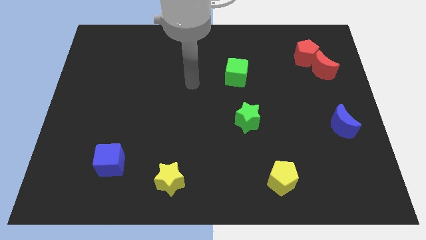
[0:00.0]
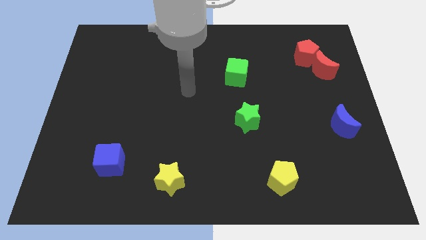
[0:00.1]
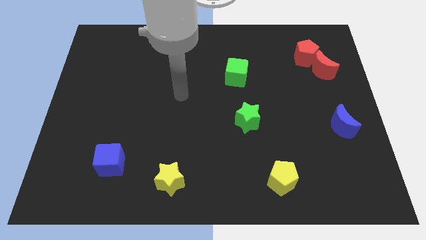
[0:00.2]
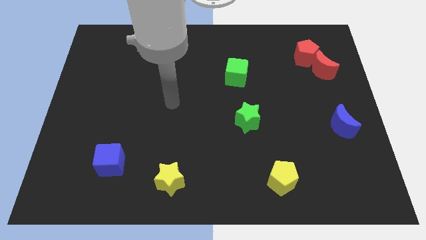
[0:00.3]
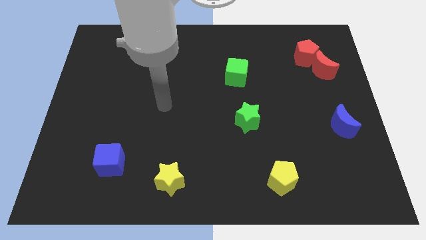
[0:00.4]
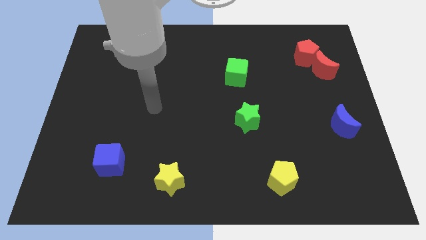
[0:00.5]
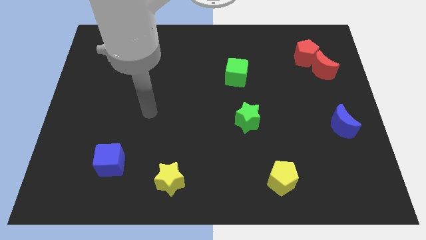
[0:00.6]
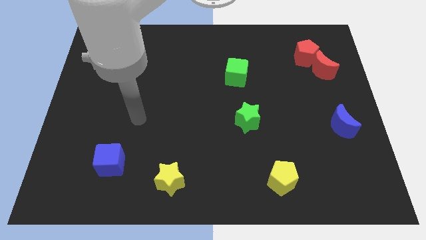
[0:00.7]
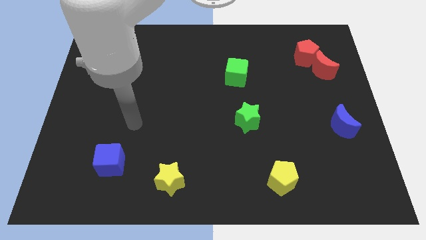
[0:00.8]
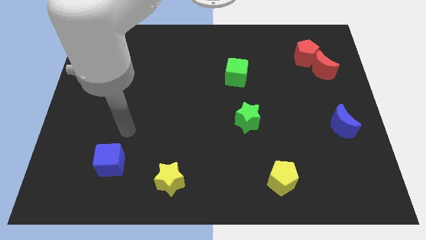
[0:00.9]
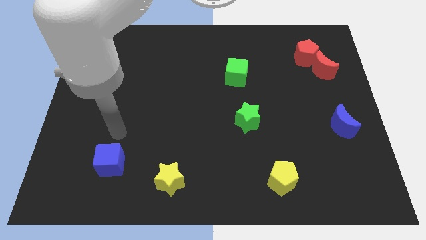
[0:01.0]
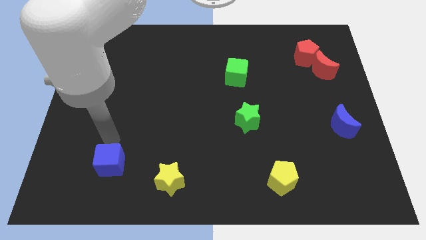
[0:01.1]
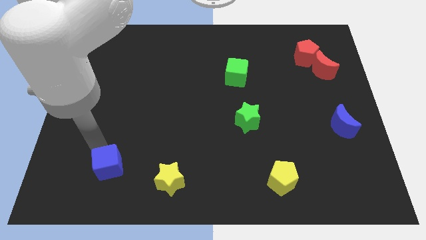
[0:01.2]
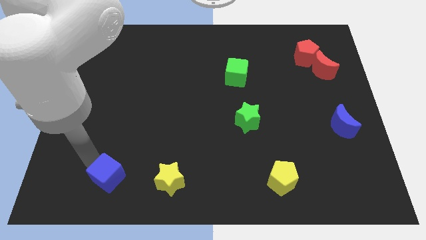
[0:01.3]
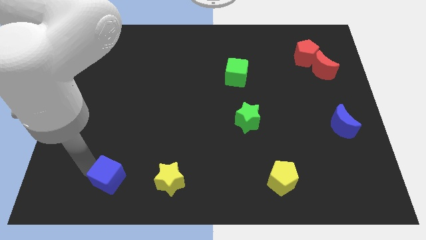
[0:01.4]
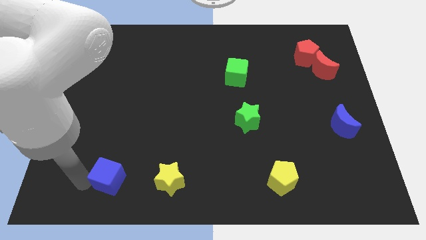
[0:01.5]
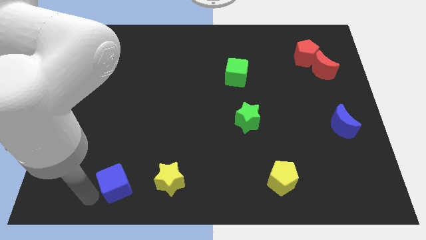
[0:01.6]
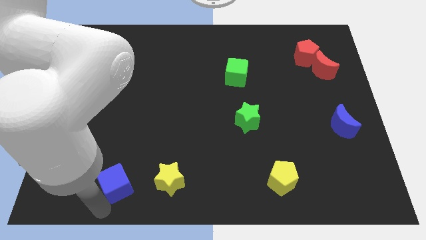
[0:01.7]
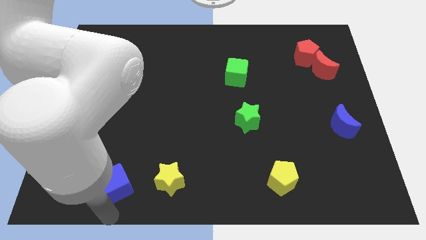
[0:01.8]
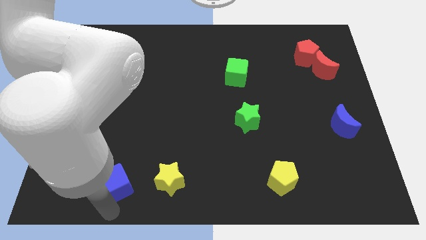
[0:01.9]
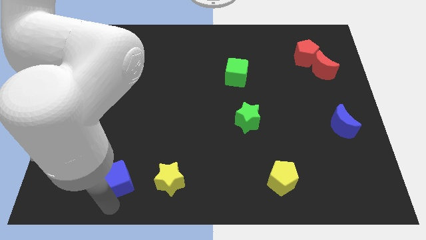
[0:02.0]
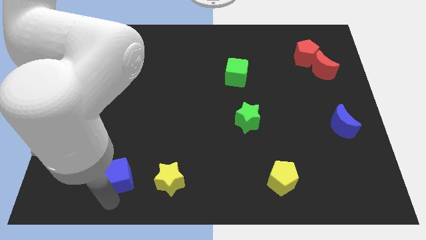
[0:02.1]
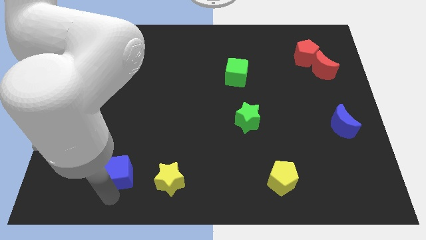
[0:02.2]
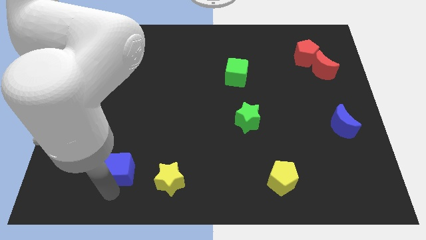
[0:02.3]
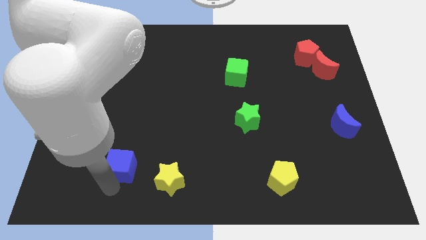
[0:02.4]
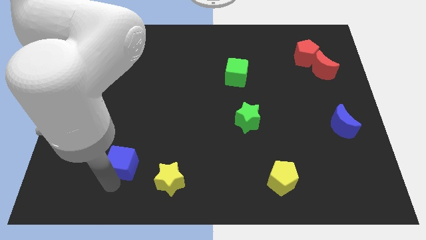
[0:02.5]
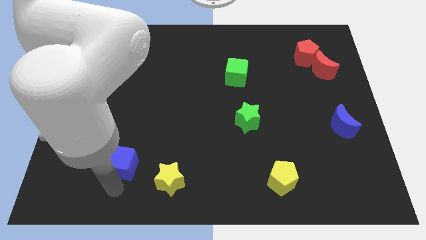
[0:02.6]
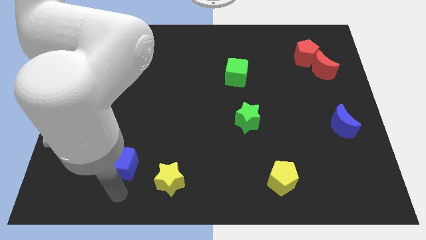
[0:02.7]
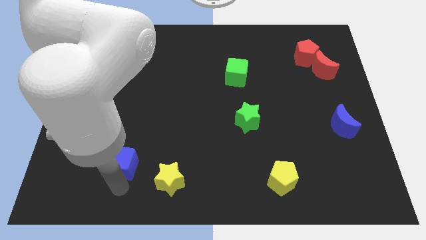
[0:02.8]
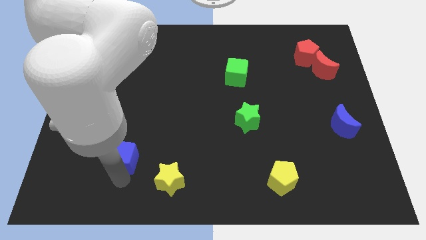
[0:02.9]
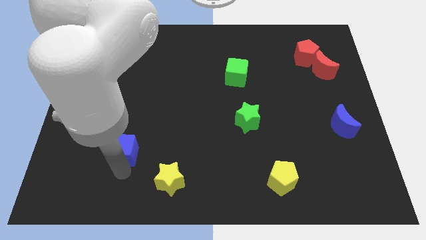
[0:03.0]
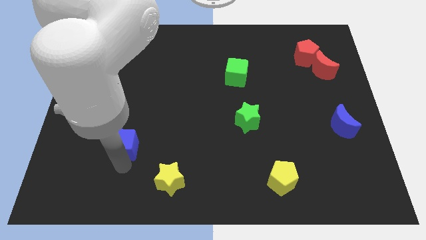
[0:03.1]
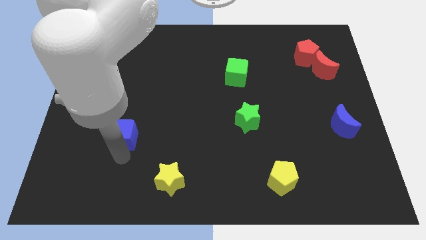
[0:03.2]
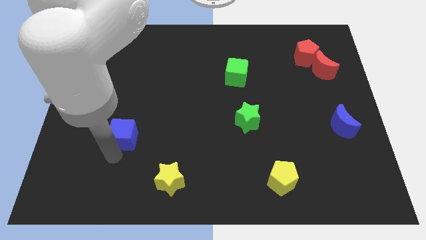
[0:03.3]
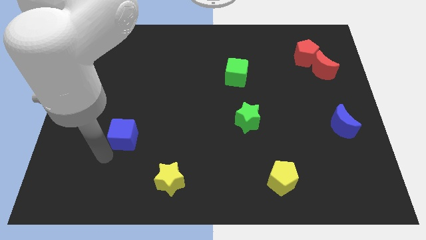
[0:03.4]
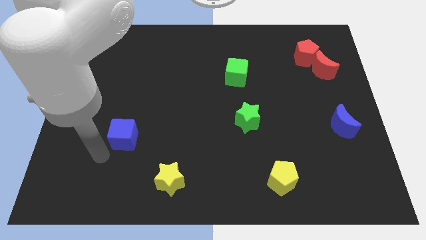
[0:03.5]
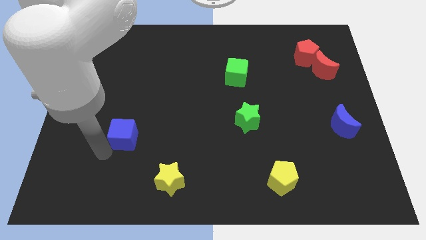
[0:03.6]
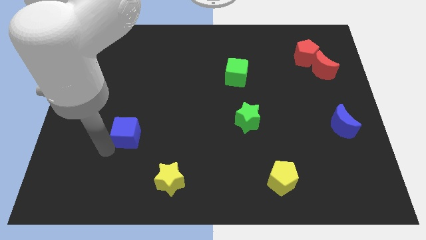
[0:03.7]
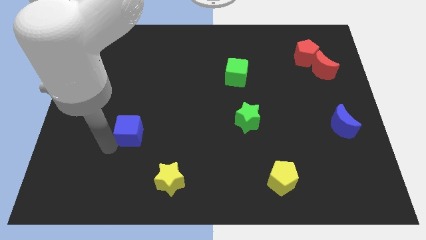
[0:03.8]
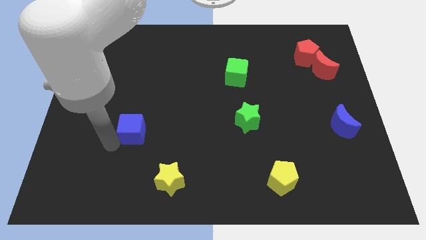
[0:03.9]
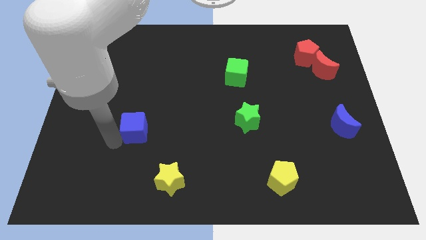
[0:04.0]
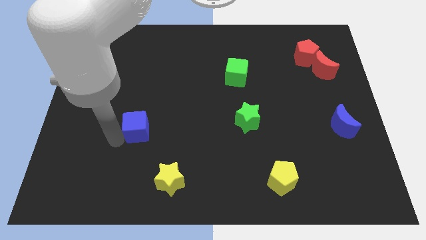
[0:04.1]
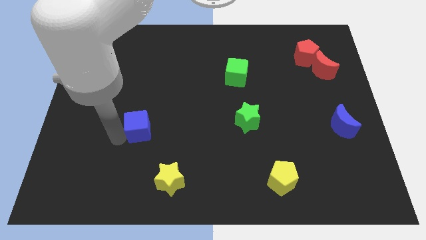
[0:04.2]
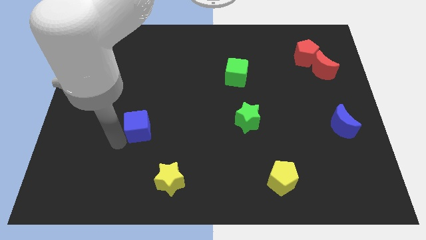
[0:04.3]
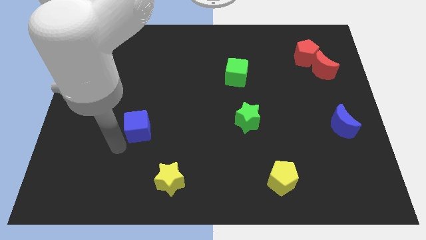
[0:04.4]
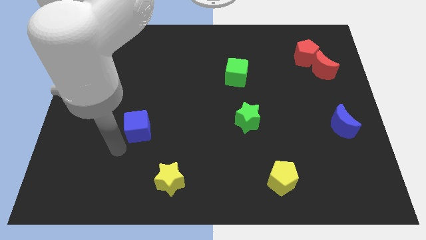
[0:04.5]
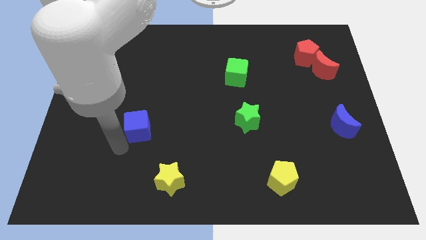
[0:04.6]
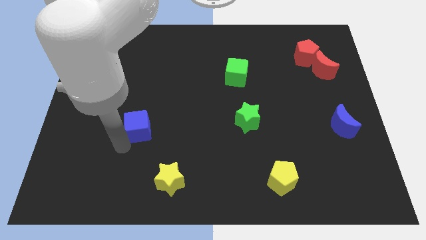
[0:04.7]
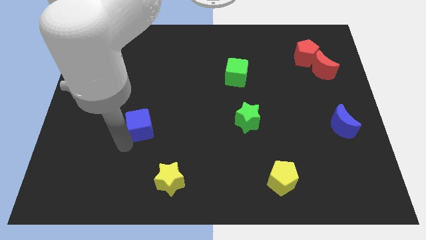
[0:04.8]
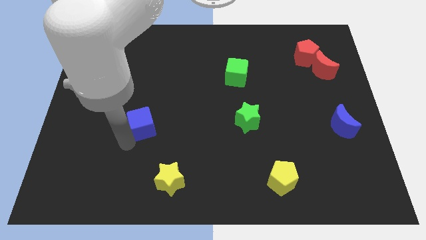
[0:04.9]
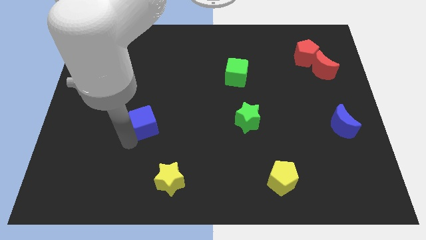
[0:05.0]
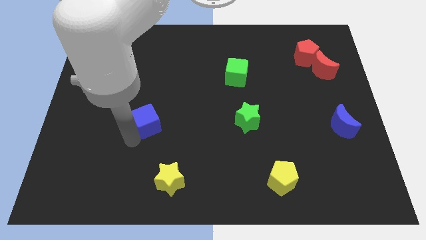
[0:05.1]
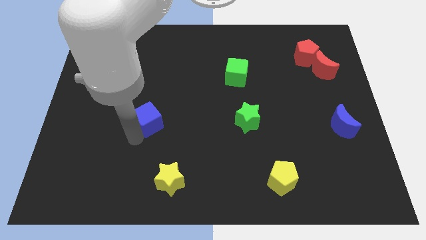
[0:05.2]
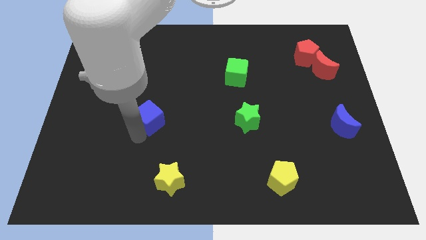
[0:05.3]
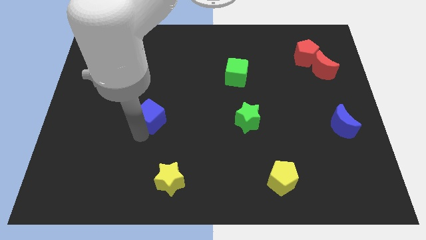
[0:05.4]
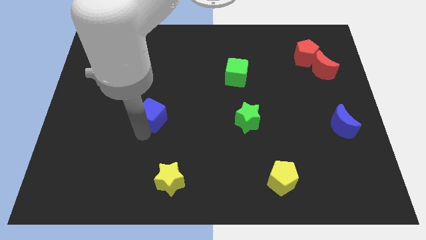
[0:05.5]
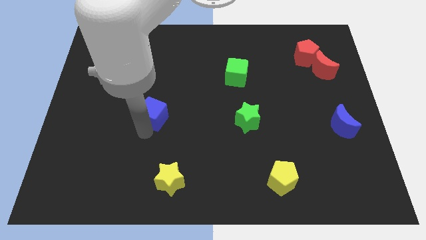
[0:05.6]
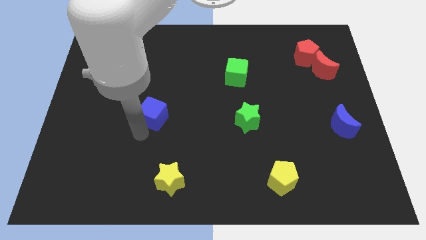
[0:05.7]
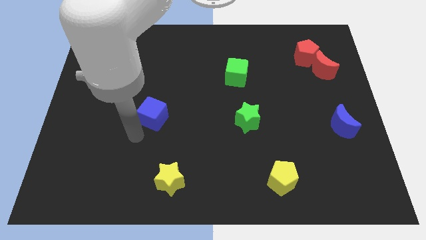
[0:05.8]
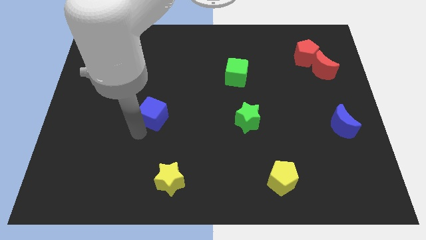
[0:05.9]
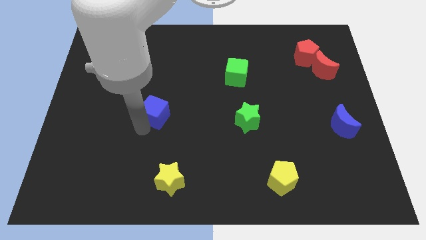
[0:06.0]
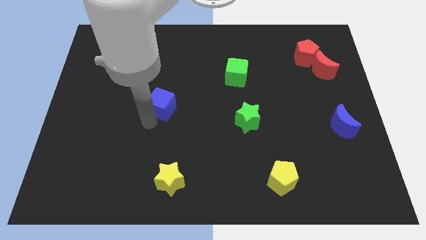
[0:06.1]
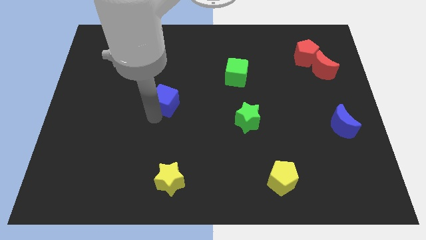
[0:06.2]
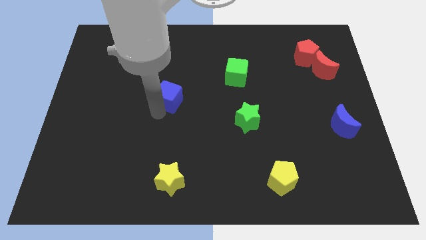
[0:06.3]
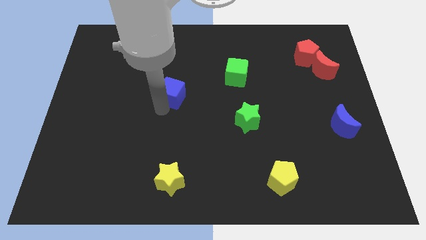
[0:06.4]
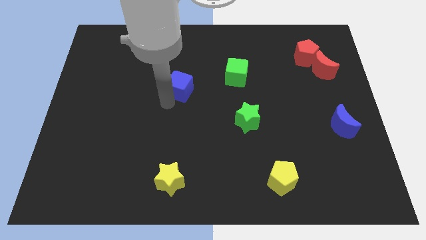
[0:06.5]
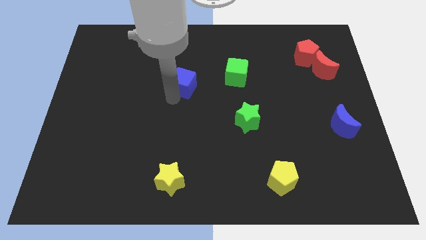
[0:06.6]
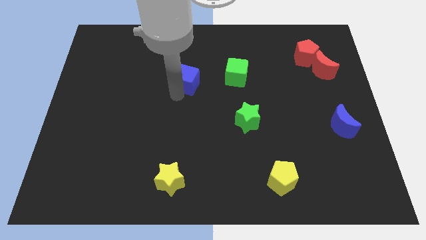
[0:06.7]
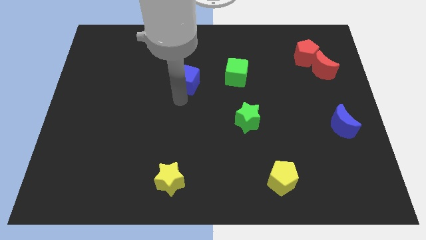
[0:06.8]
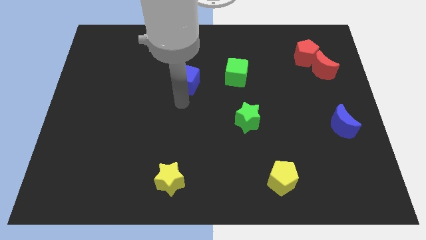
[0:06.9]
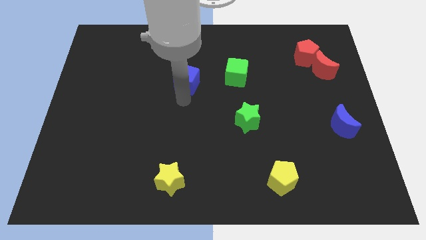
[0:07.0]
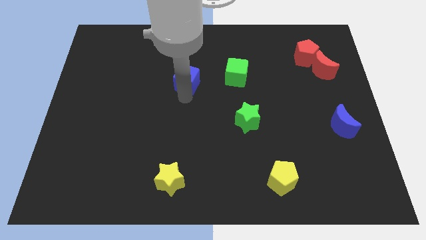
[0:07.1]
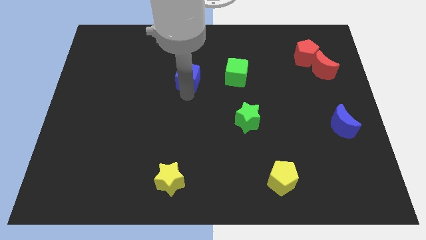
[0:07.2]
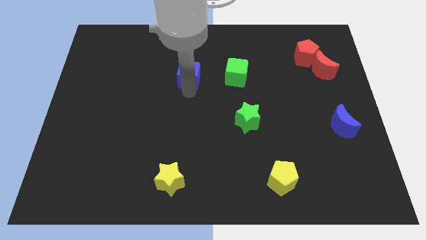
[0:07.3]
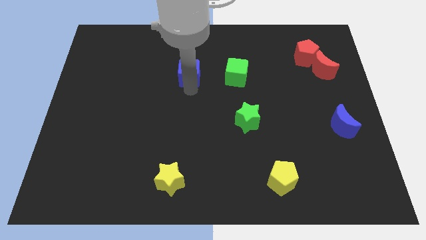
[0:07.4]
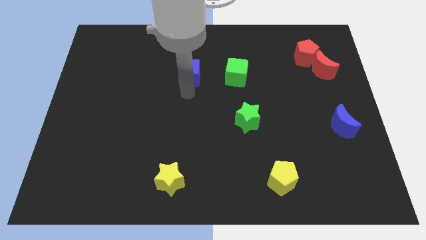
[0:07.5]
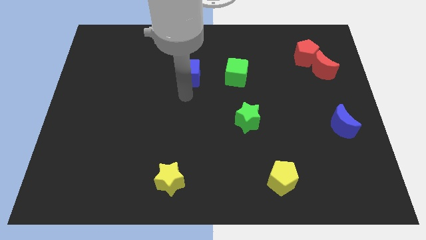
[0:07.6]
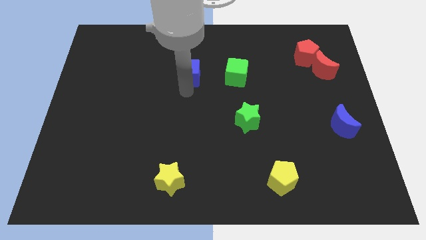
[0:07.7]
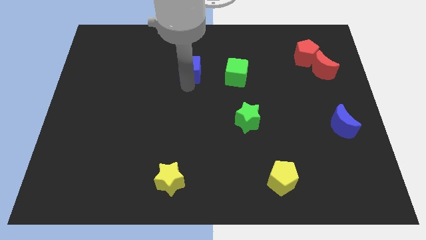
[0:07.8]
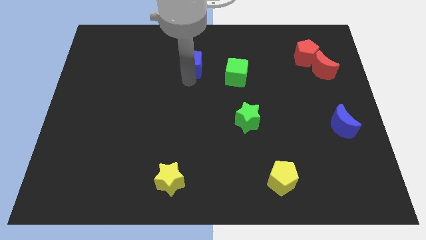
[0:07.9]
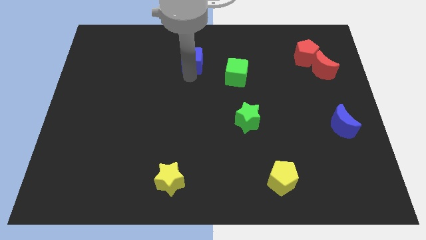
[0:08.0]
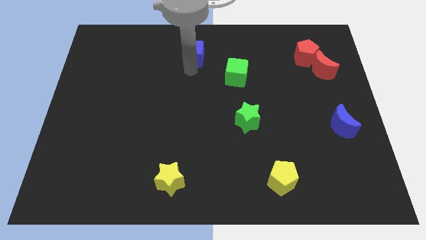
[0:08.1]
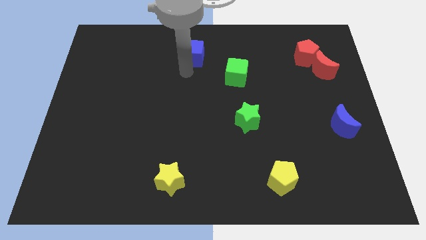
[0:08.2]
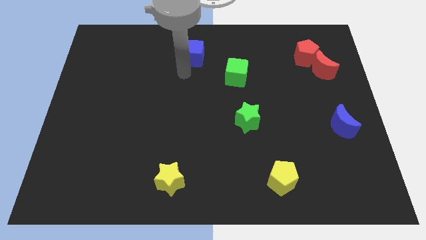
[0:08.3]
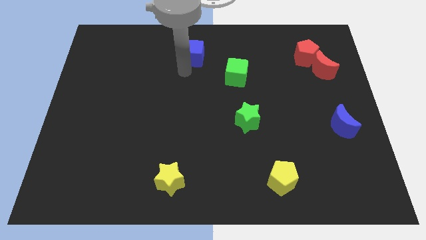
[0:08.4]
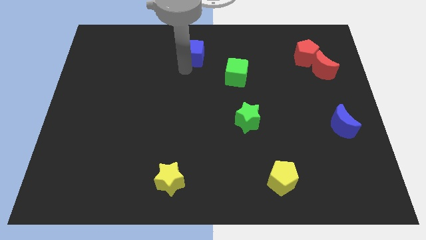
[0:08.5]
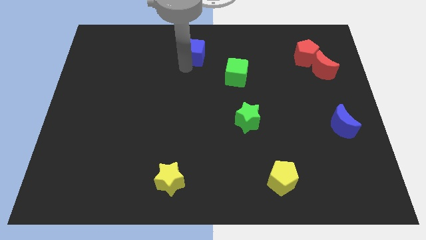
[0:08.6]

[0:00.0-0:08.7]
put the blue cube to the towards your base
